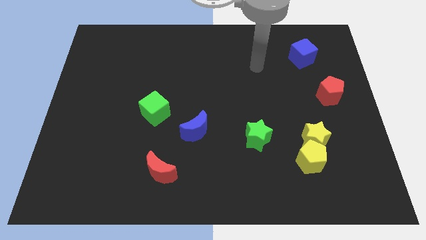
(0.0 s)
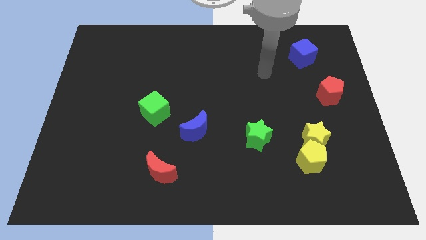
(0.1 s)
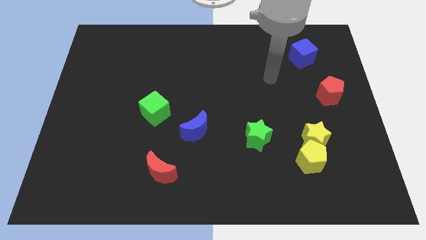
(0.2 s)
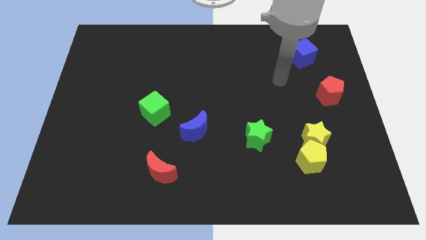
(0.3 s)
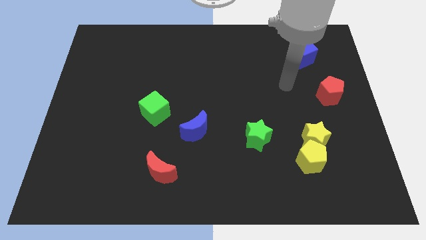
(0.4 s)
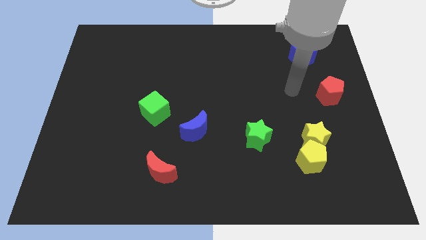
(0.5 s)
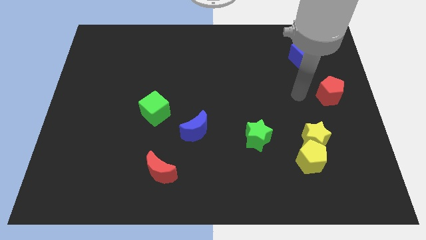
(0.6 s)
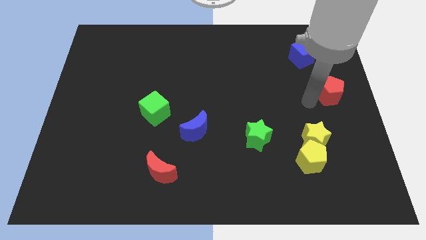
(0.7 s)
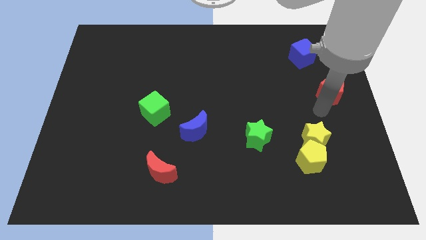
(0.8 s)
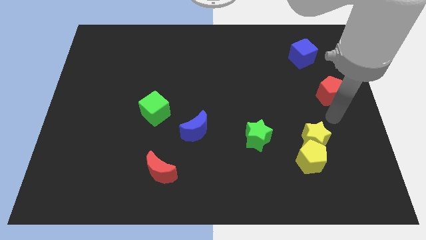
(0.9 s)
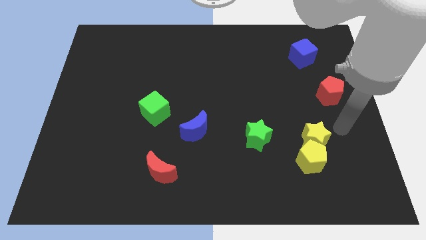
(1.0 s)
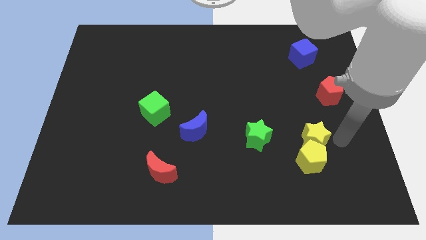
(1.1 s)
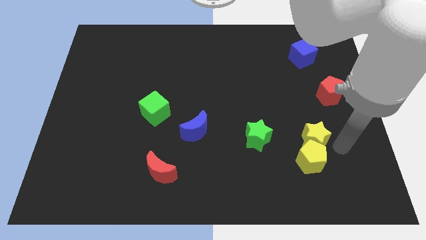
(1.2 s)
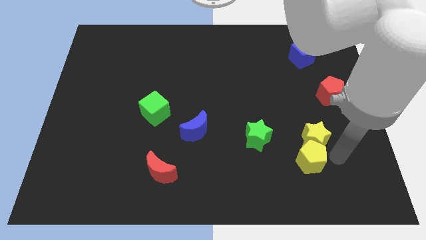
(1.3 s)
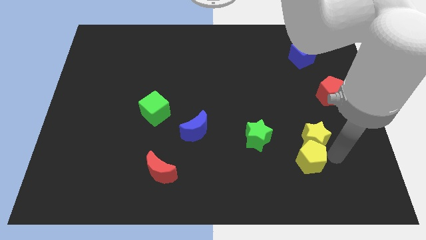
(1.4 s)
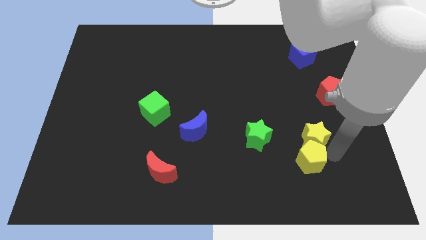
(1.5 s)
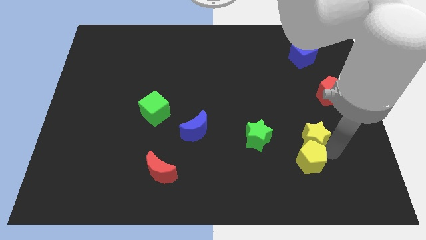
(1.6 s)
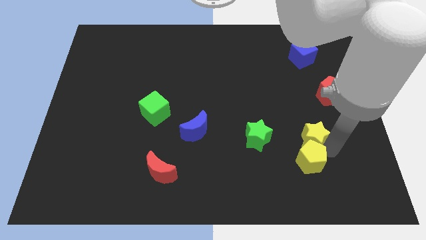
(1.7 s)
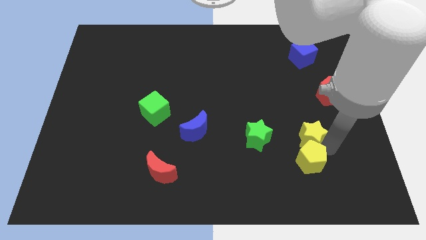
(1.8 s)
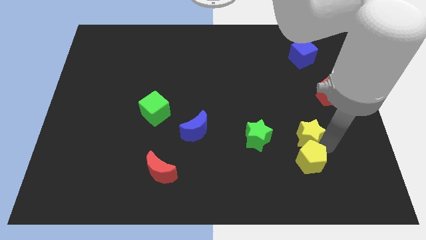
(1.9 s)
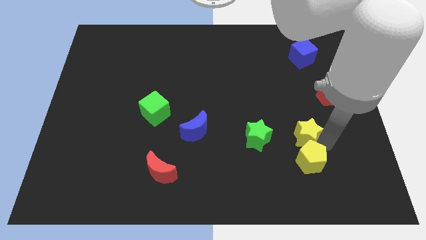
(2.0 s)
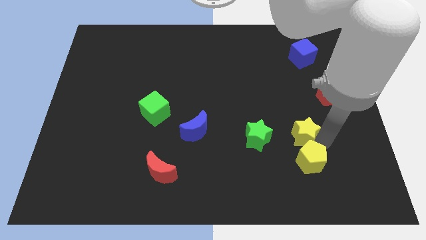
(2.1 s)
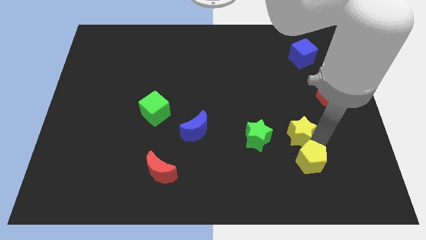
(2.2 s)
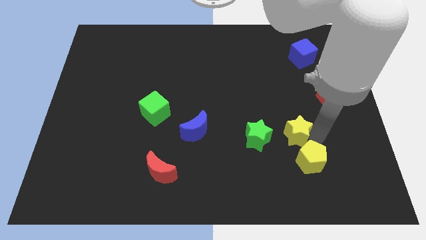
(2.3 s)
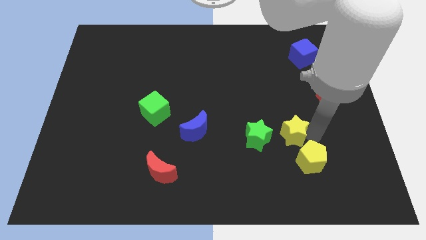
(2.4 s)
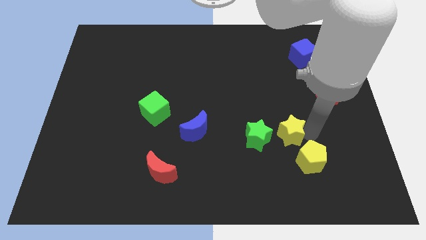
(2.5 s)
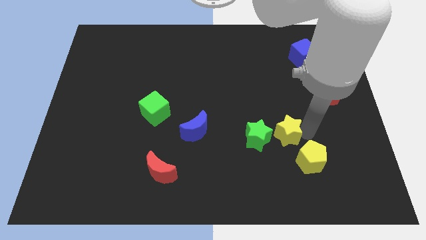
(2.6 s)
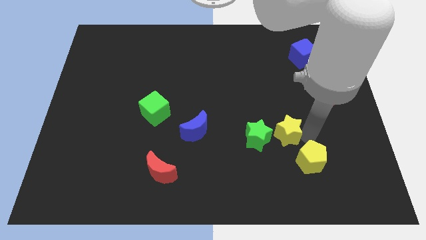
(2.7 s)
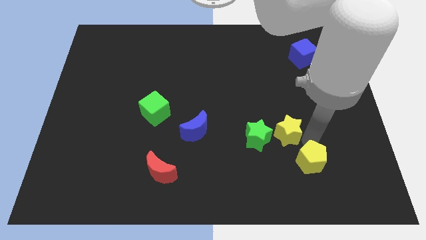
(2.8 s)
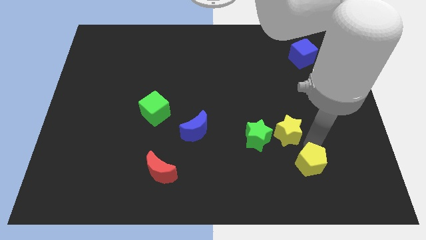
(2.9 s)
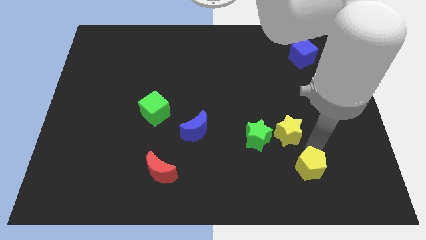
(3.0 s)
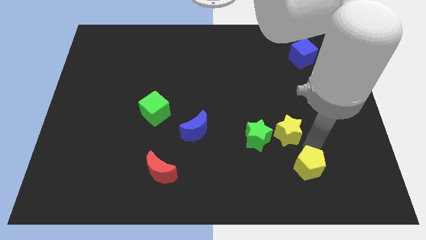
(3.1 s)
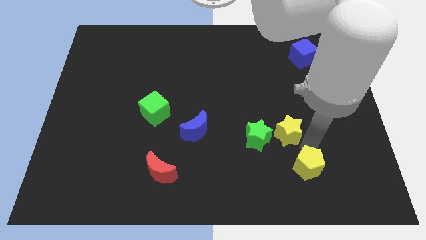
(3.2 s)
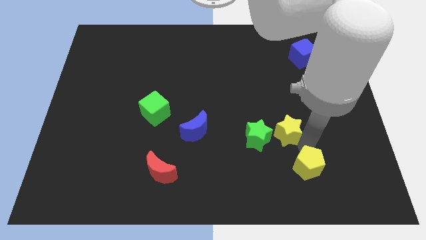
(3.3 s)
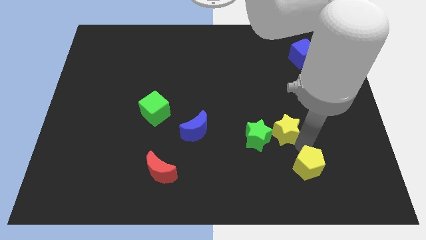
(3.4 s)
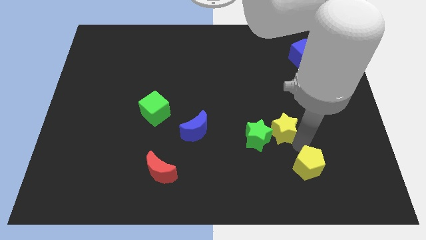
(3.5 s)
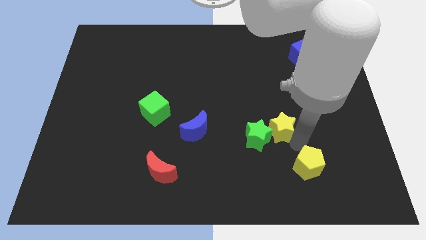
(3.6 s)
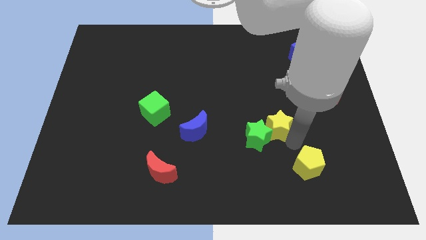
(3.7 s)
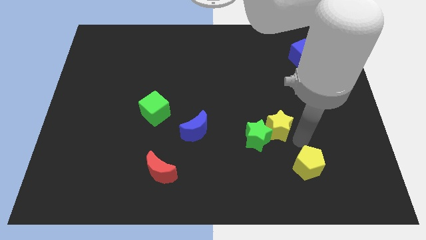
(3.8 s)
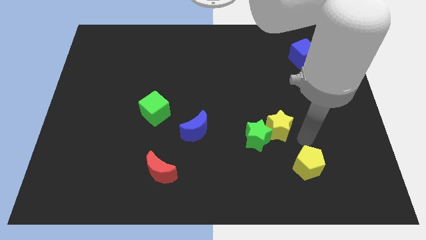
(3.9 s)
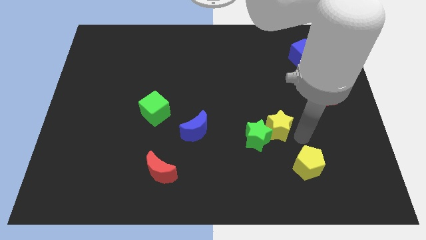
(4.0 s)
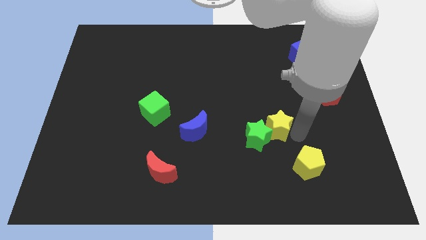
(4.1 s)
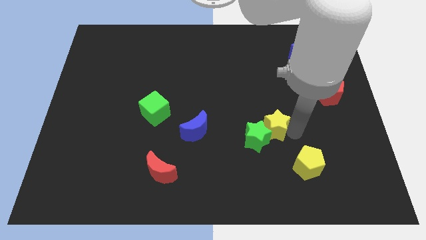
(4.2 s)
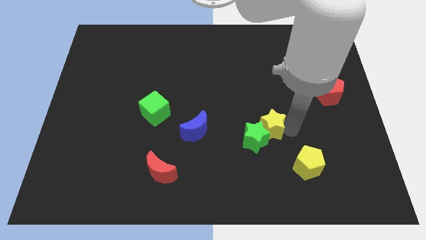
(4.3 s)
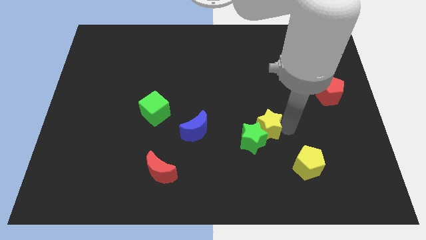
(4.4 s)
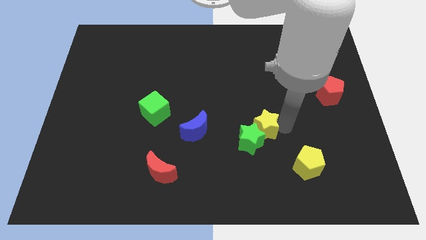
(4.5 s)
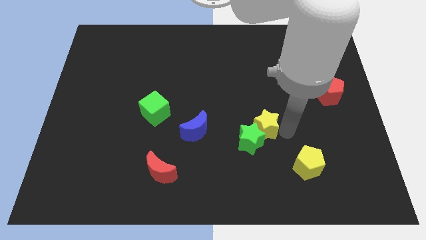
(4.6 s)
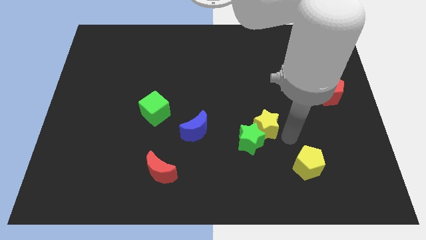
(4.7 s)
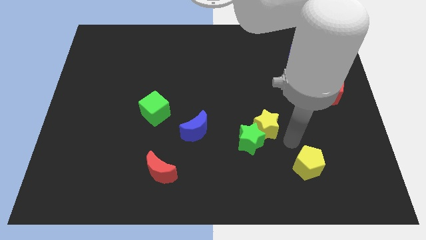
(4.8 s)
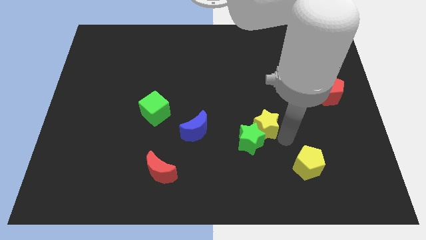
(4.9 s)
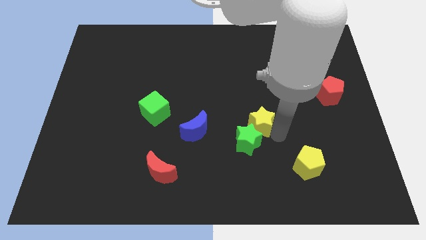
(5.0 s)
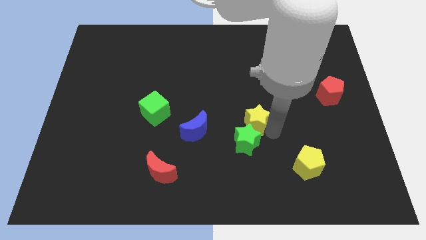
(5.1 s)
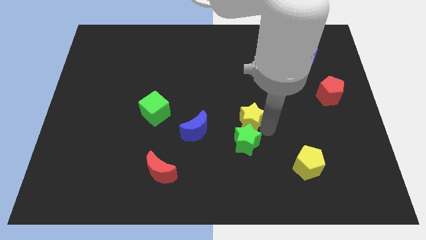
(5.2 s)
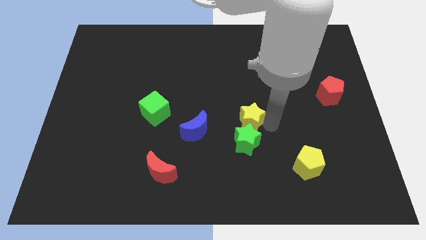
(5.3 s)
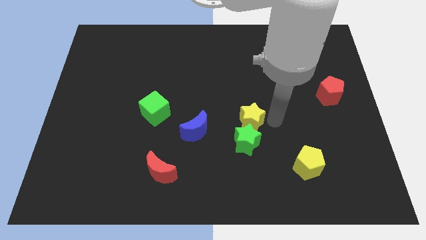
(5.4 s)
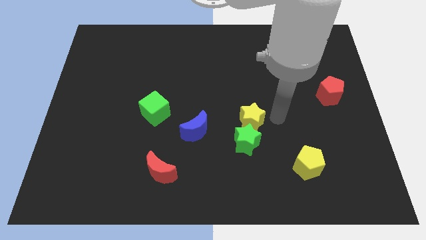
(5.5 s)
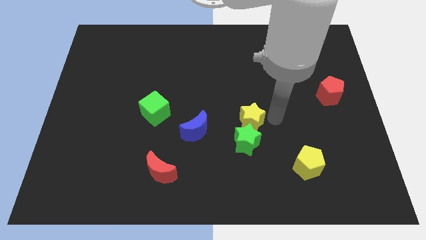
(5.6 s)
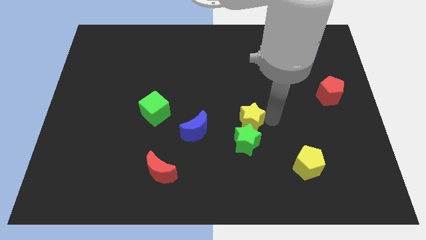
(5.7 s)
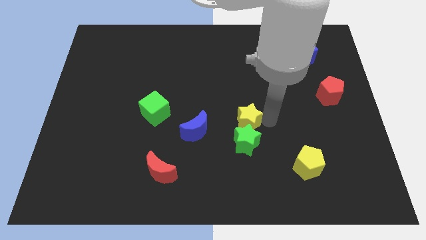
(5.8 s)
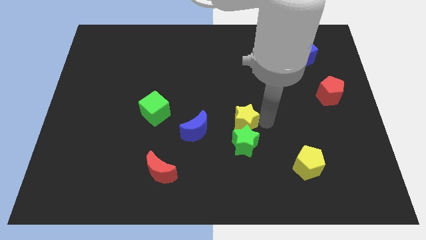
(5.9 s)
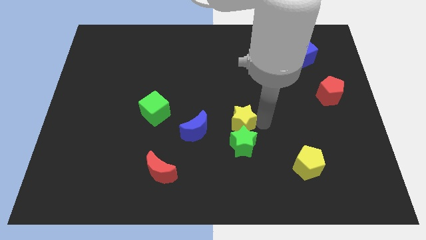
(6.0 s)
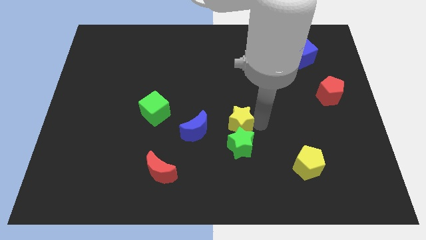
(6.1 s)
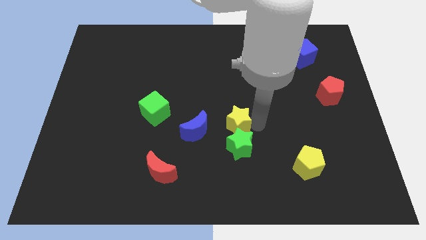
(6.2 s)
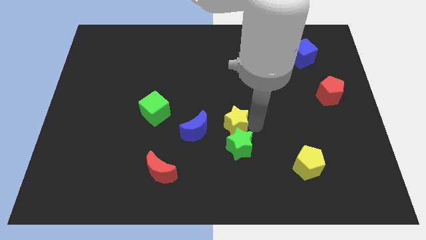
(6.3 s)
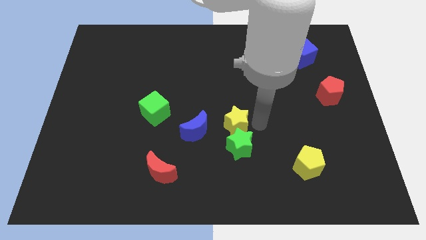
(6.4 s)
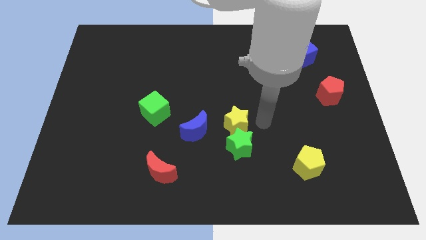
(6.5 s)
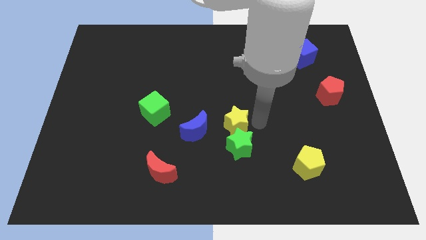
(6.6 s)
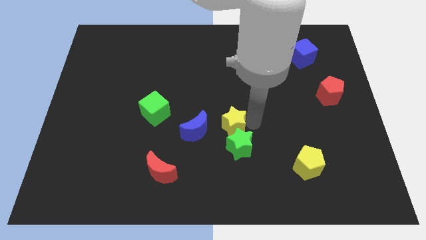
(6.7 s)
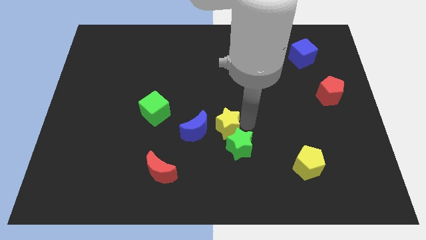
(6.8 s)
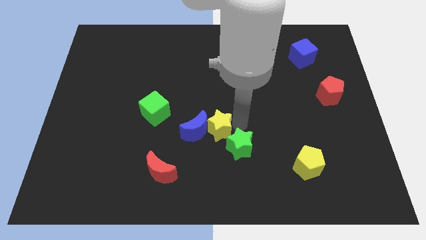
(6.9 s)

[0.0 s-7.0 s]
slide the yellow star towards the blue moon
